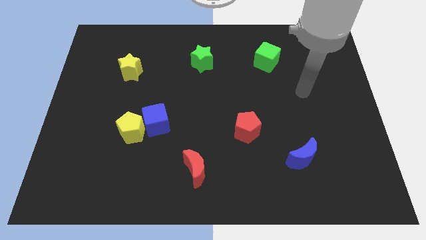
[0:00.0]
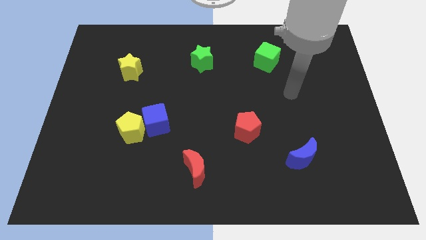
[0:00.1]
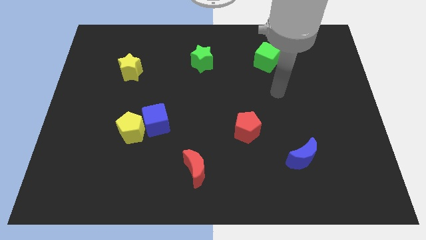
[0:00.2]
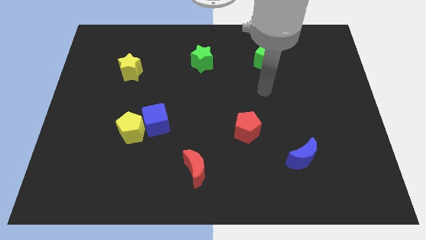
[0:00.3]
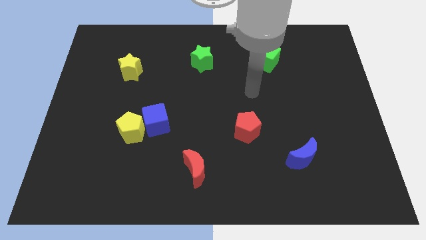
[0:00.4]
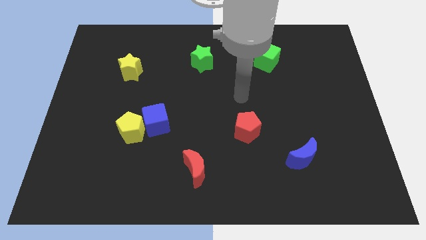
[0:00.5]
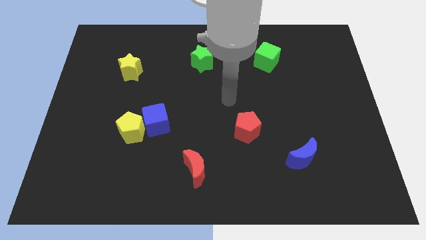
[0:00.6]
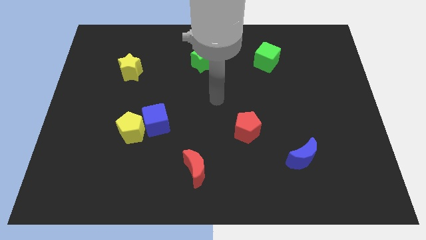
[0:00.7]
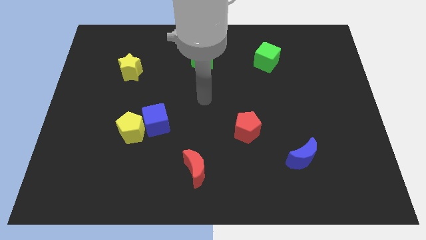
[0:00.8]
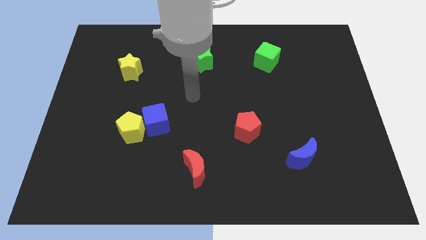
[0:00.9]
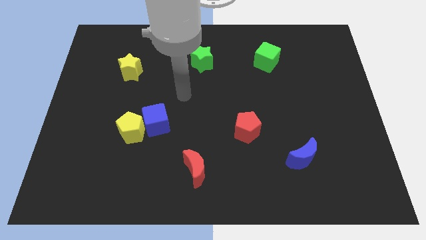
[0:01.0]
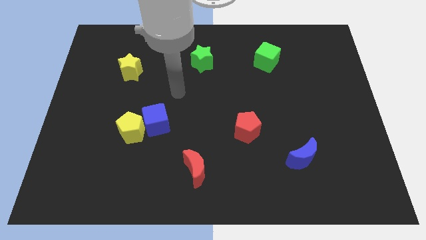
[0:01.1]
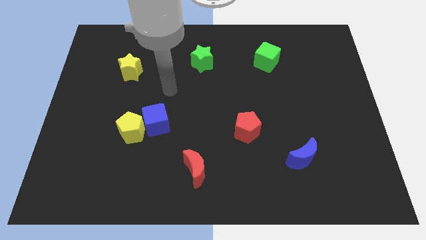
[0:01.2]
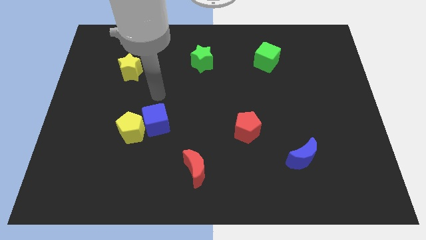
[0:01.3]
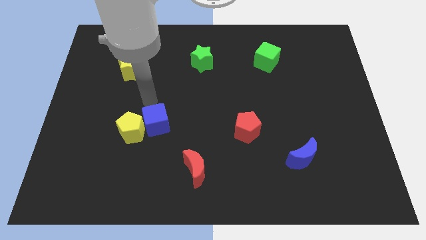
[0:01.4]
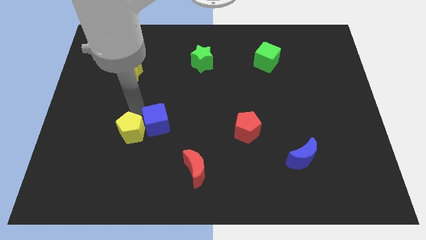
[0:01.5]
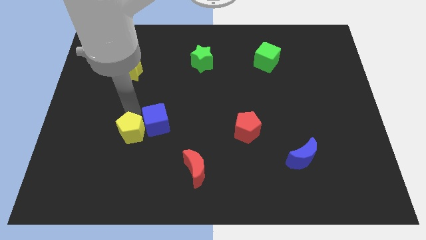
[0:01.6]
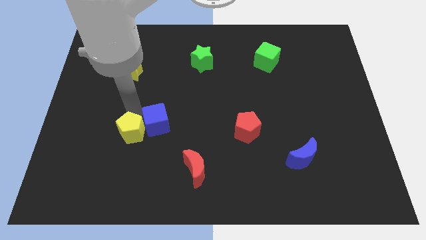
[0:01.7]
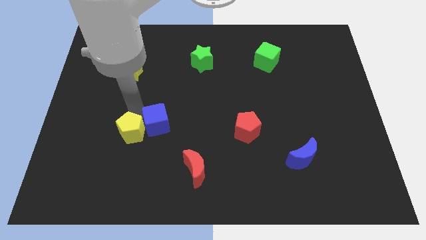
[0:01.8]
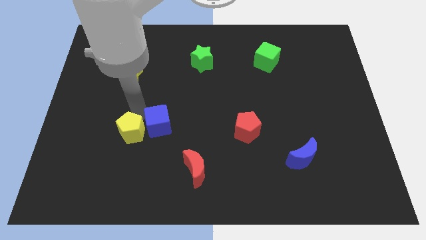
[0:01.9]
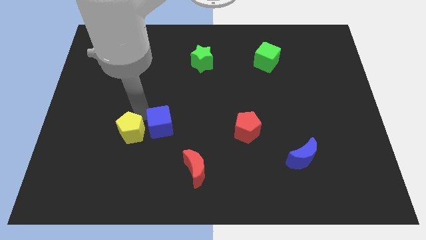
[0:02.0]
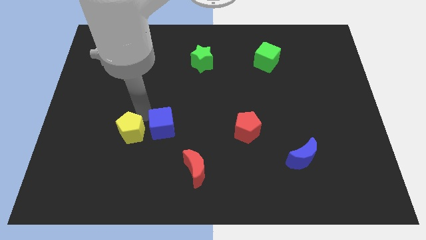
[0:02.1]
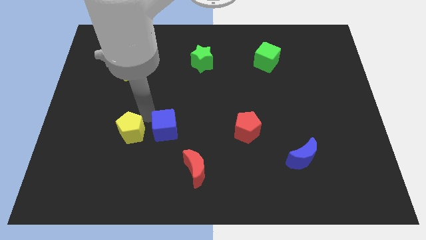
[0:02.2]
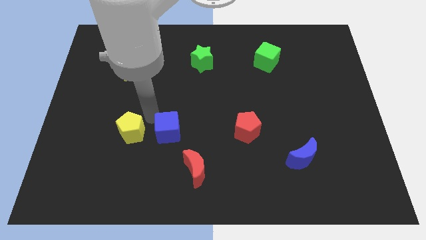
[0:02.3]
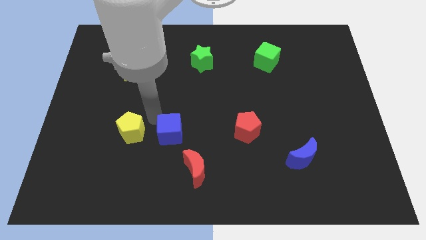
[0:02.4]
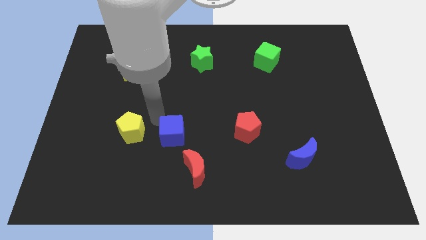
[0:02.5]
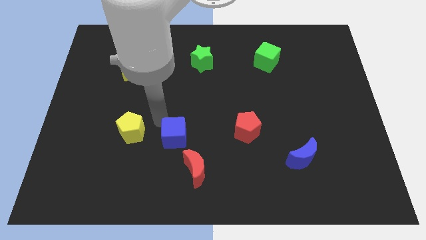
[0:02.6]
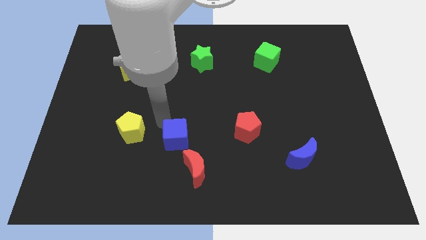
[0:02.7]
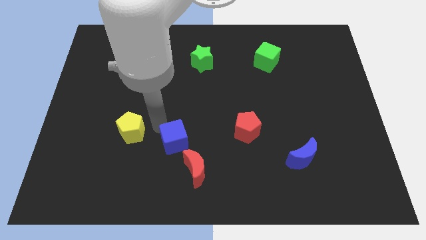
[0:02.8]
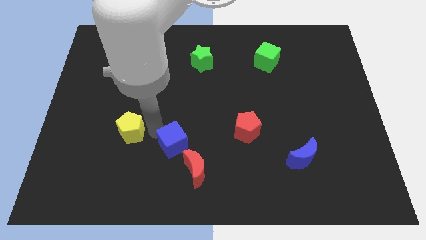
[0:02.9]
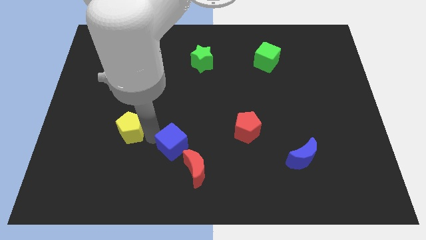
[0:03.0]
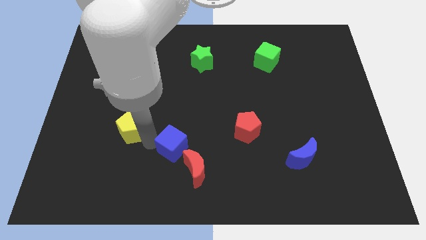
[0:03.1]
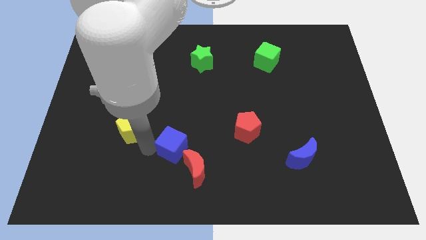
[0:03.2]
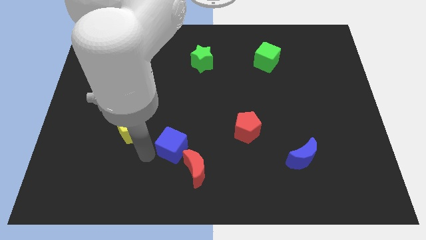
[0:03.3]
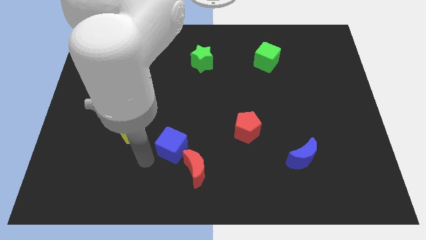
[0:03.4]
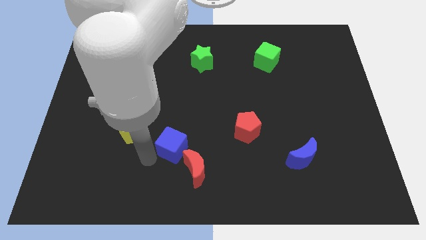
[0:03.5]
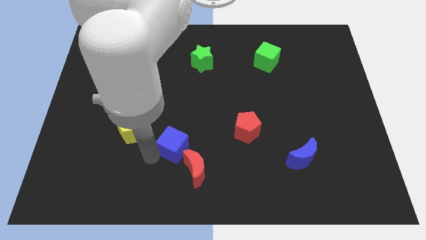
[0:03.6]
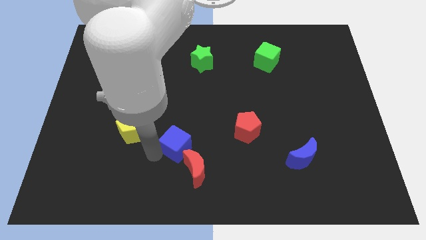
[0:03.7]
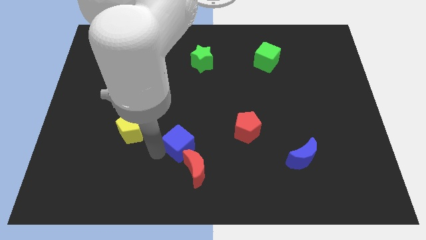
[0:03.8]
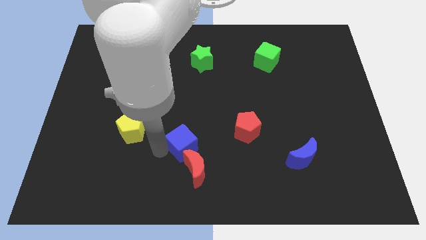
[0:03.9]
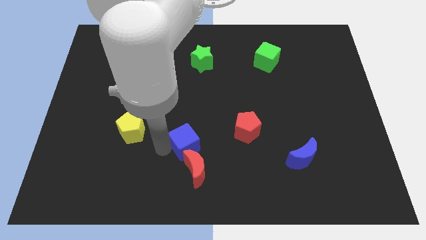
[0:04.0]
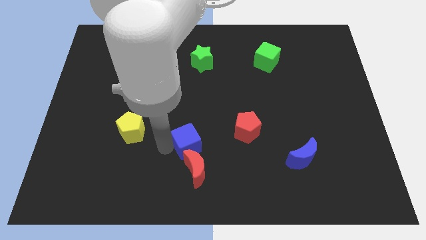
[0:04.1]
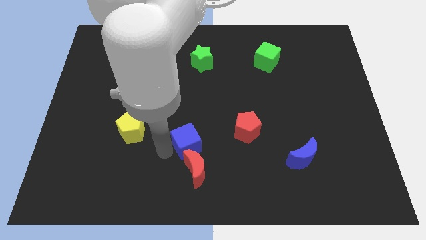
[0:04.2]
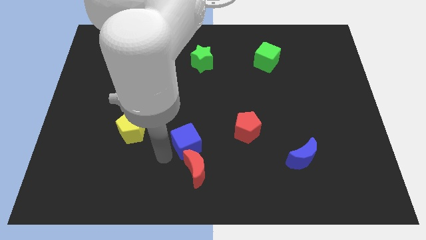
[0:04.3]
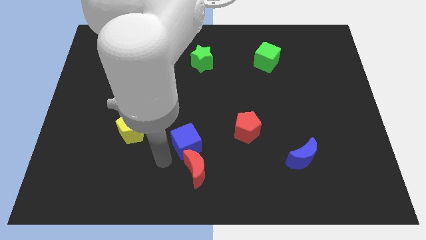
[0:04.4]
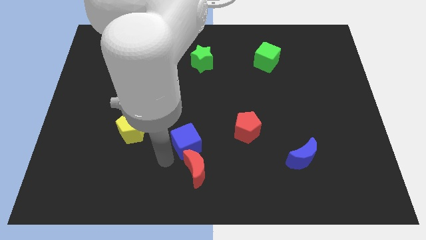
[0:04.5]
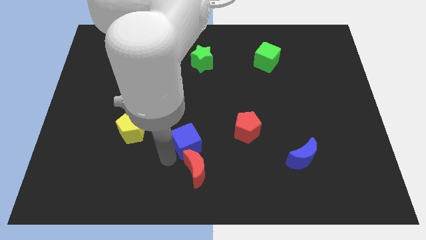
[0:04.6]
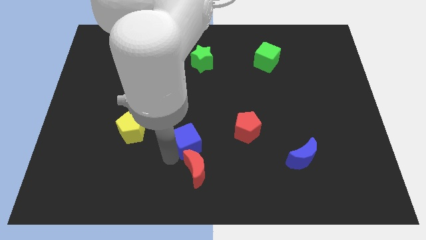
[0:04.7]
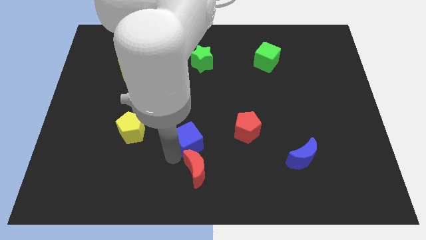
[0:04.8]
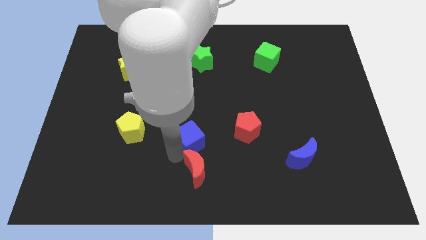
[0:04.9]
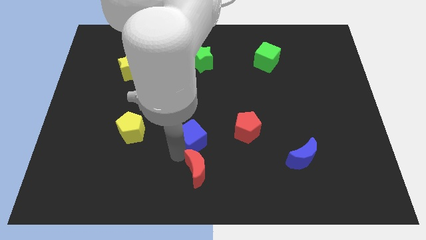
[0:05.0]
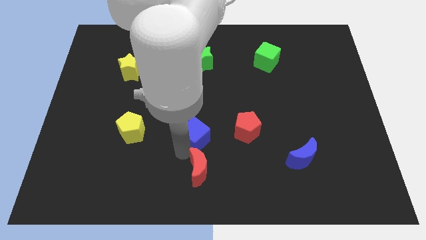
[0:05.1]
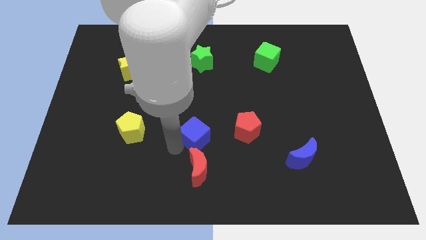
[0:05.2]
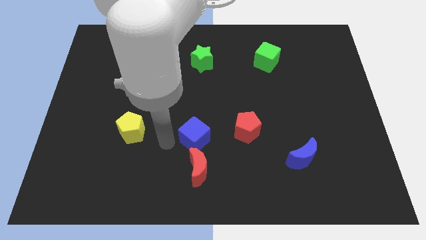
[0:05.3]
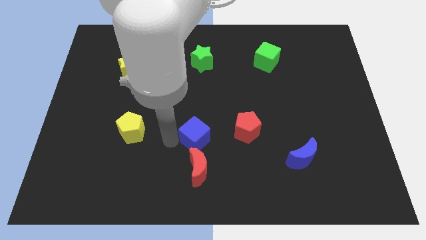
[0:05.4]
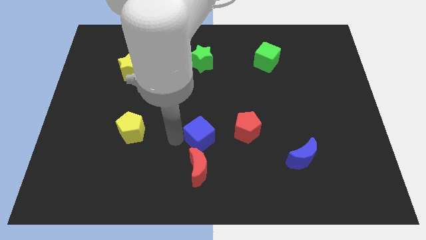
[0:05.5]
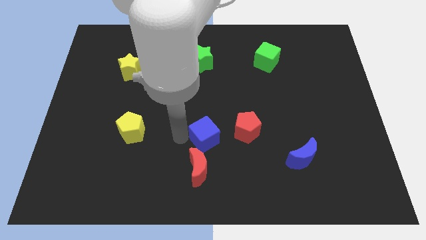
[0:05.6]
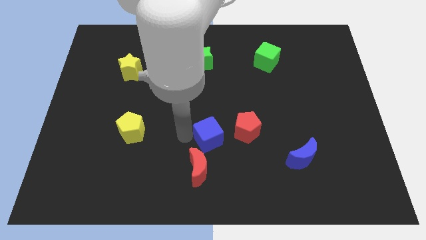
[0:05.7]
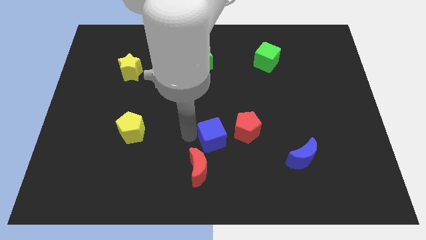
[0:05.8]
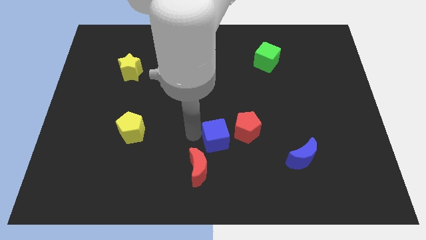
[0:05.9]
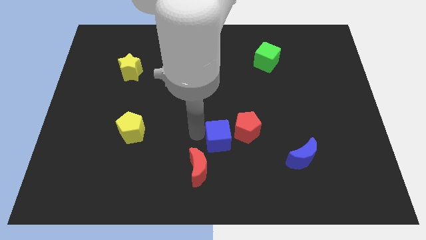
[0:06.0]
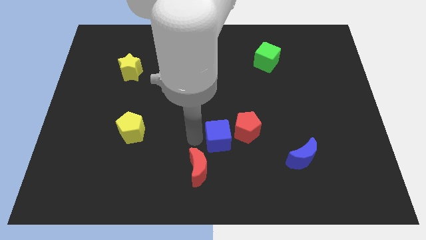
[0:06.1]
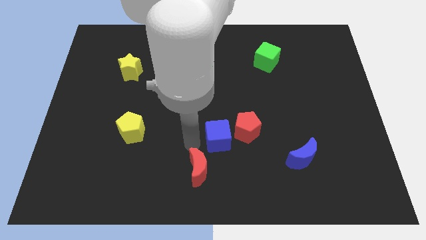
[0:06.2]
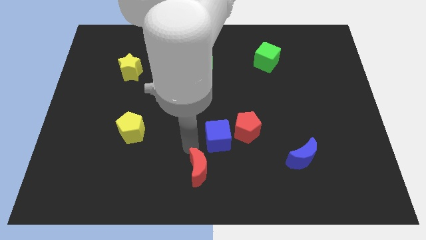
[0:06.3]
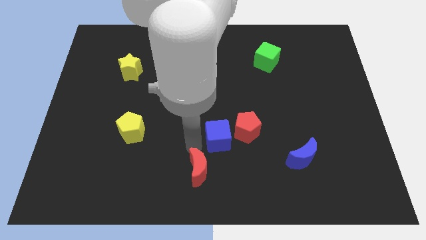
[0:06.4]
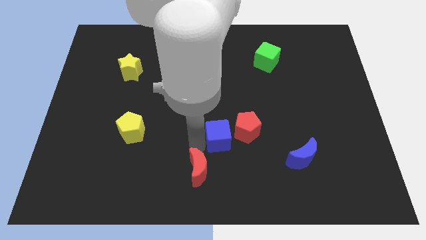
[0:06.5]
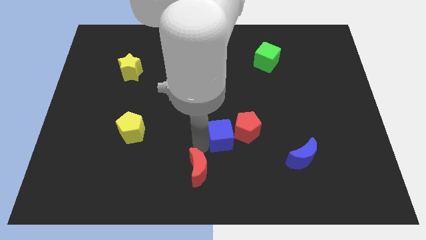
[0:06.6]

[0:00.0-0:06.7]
push the blue cube to the red pentagon

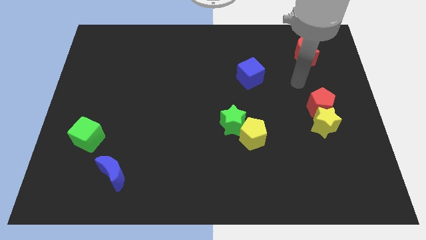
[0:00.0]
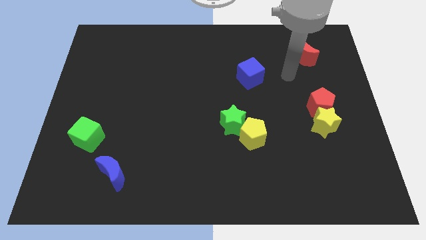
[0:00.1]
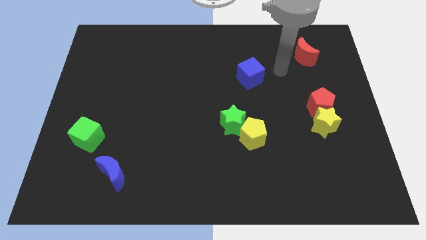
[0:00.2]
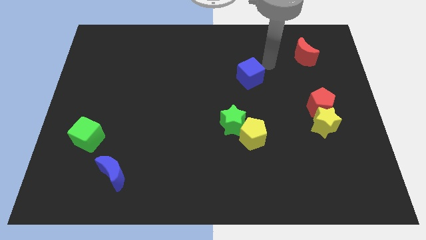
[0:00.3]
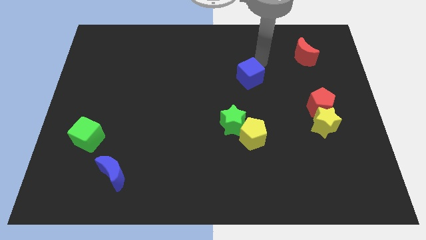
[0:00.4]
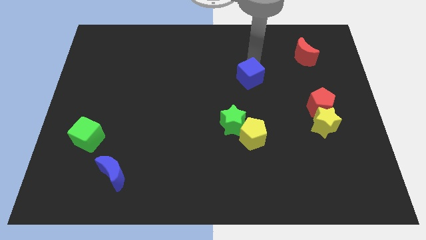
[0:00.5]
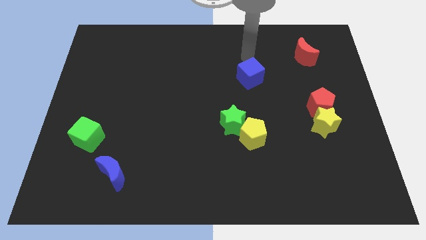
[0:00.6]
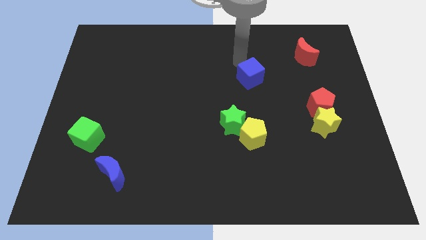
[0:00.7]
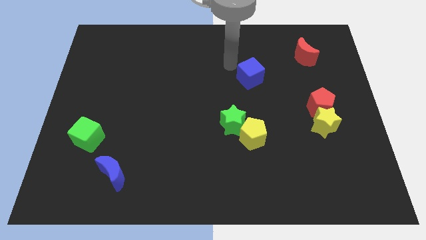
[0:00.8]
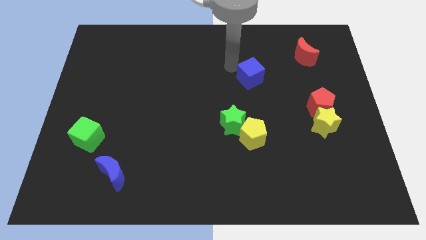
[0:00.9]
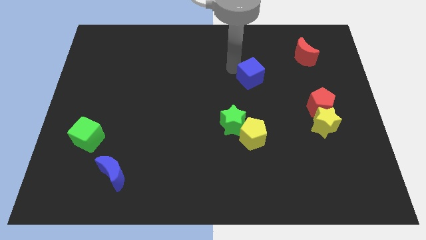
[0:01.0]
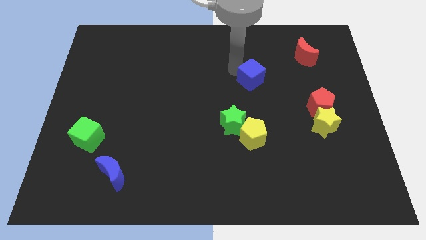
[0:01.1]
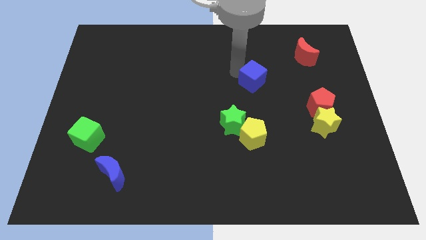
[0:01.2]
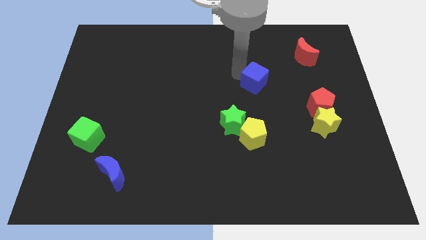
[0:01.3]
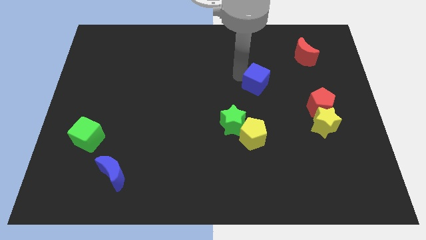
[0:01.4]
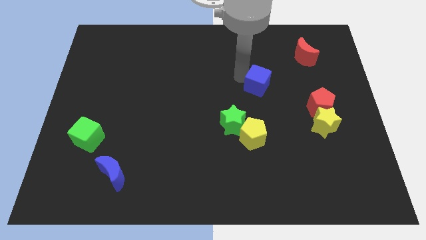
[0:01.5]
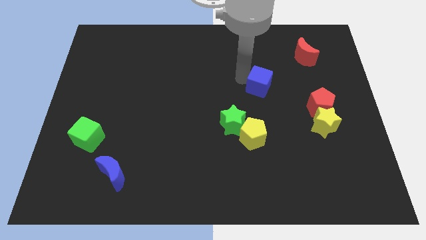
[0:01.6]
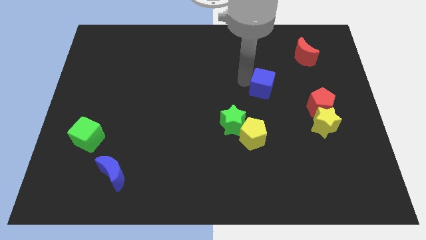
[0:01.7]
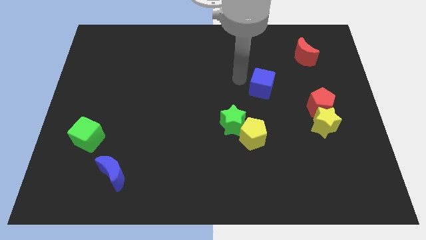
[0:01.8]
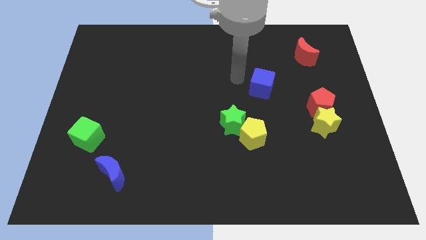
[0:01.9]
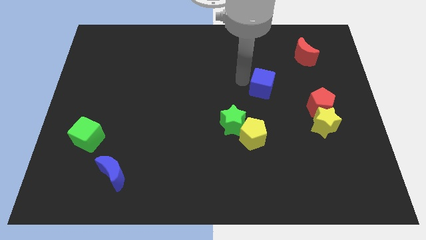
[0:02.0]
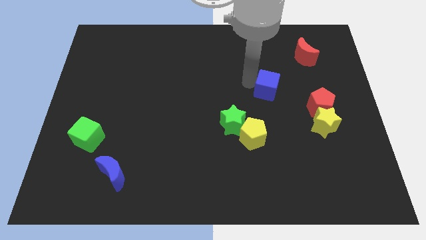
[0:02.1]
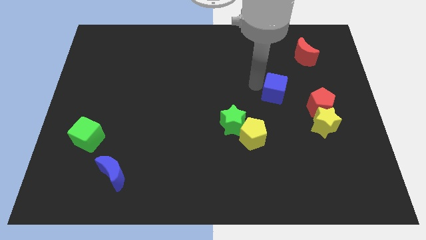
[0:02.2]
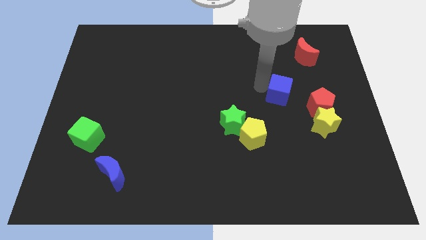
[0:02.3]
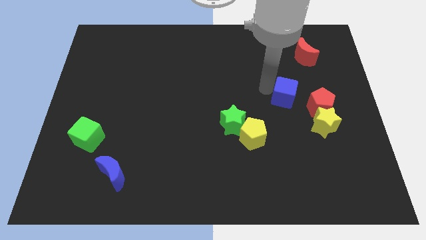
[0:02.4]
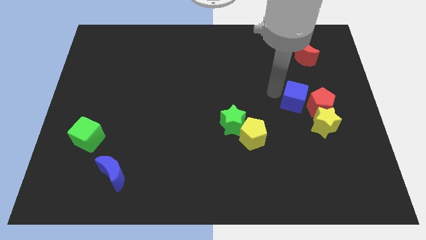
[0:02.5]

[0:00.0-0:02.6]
move the blue cube next to the red pentagon
